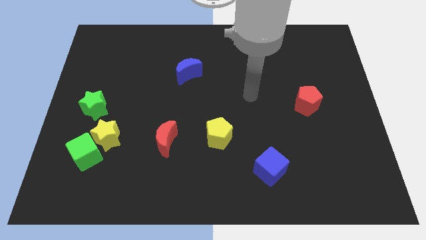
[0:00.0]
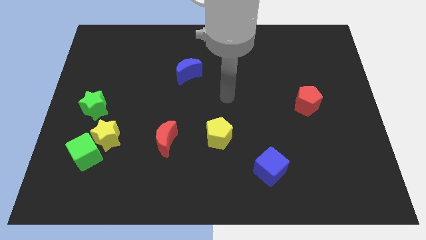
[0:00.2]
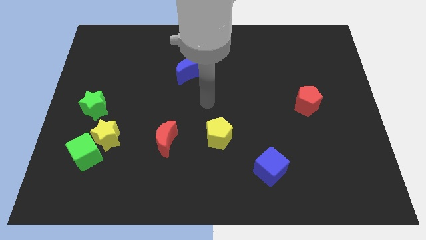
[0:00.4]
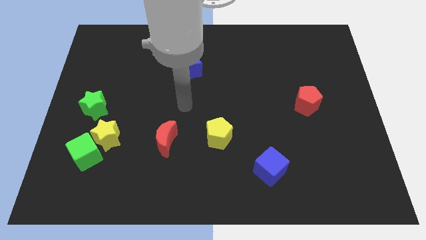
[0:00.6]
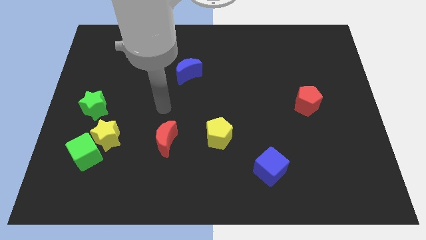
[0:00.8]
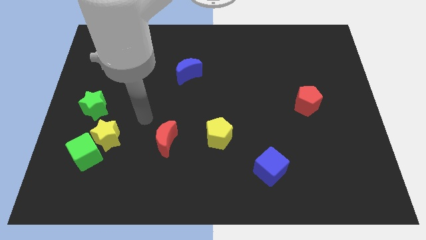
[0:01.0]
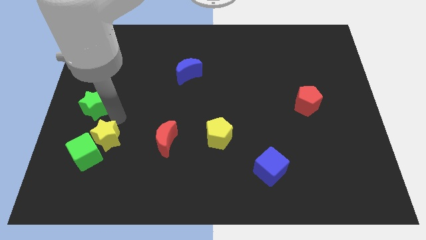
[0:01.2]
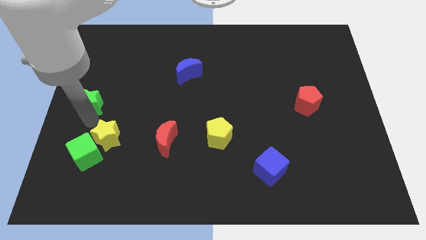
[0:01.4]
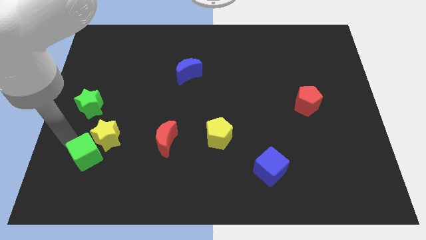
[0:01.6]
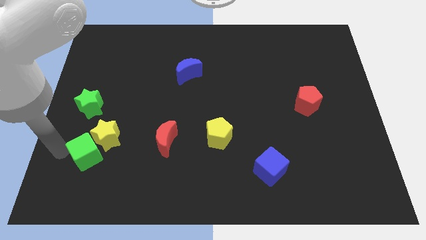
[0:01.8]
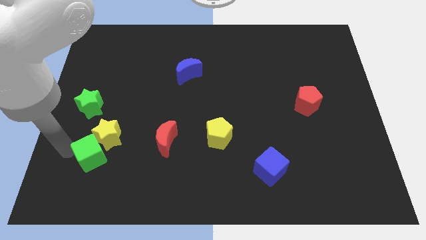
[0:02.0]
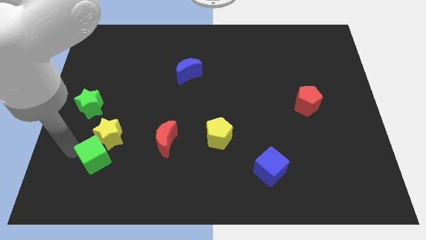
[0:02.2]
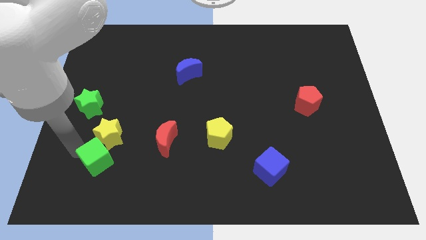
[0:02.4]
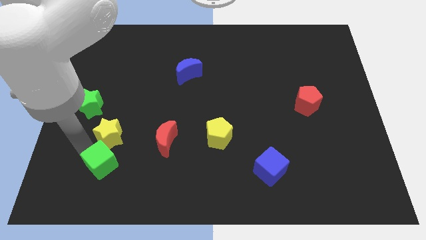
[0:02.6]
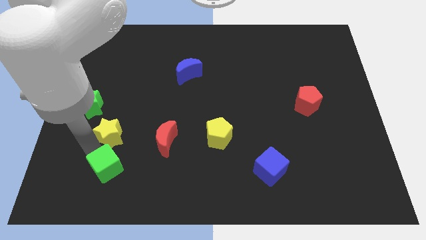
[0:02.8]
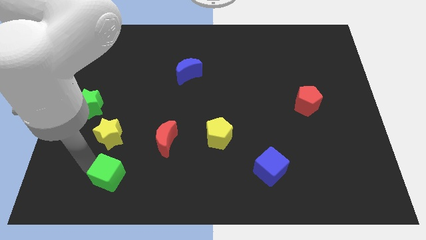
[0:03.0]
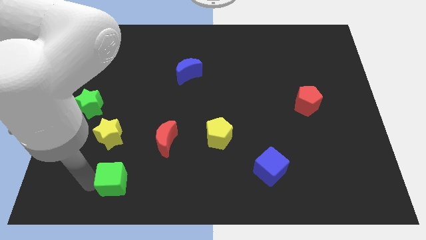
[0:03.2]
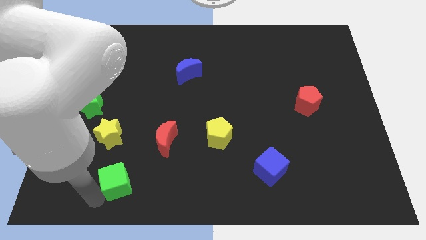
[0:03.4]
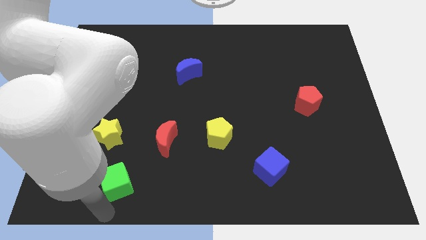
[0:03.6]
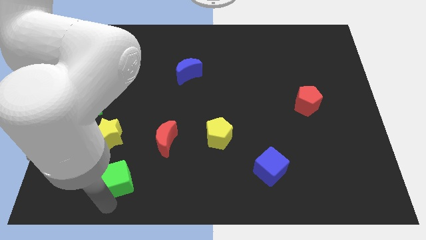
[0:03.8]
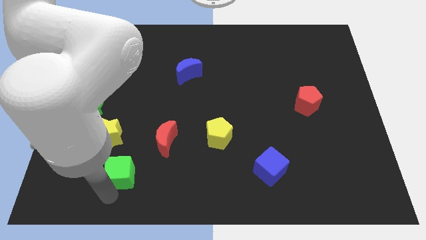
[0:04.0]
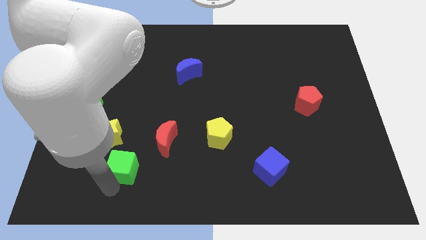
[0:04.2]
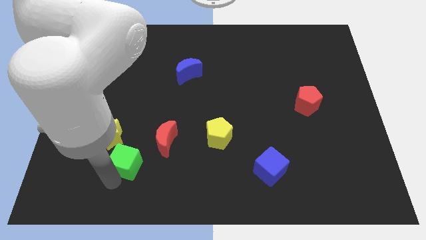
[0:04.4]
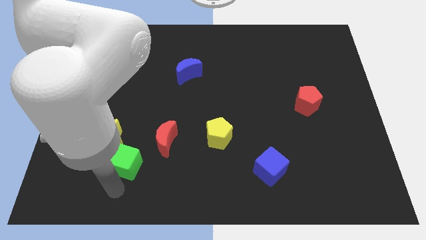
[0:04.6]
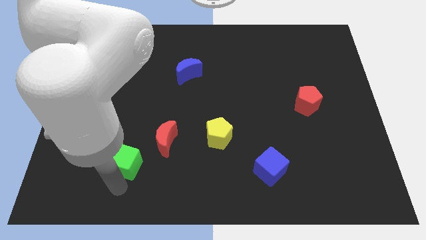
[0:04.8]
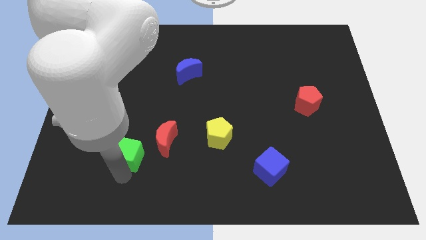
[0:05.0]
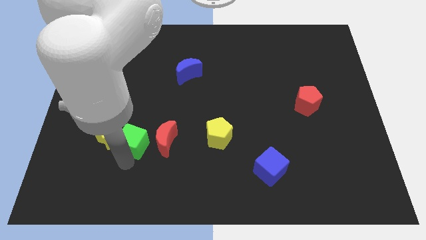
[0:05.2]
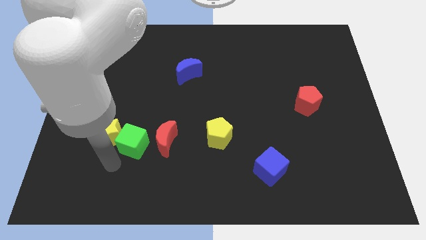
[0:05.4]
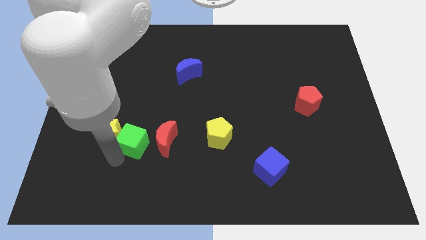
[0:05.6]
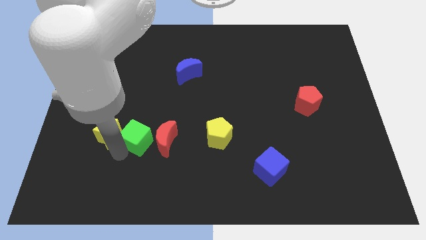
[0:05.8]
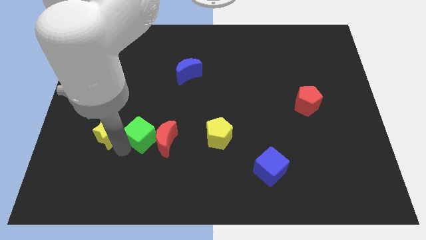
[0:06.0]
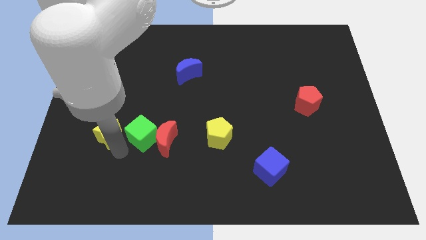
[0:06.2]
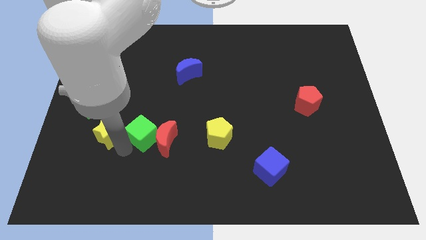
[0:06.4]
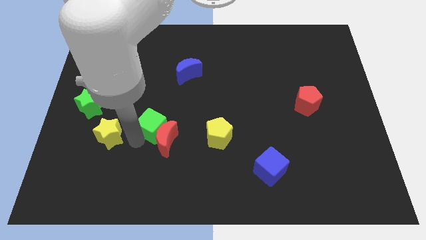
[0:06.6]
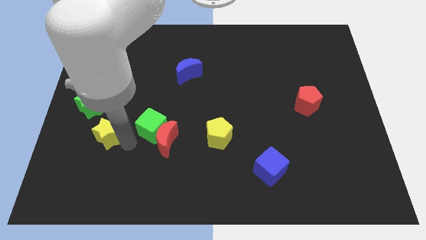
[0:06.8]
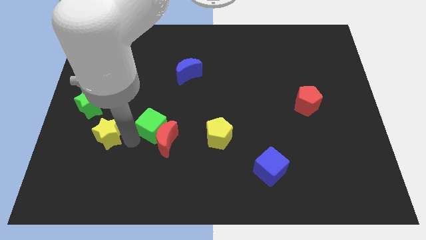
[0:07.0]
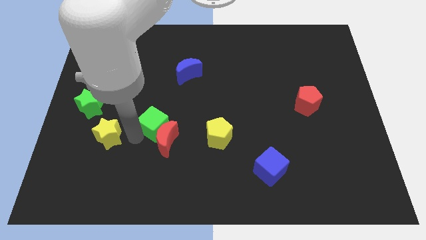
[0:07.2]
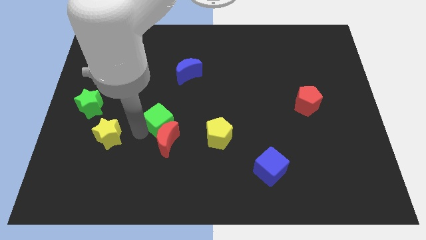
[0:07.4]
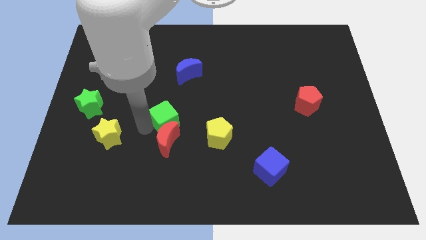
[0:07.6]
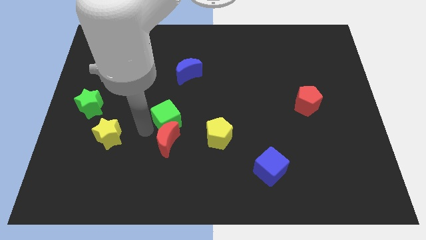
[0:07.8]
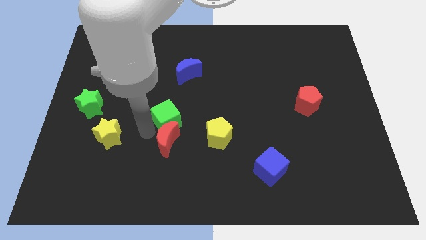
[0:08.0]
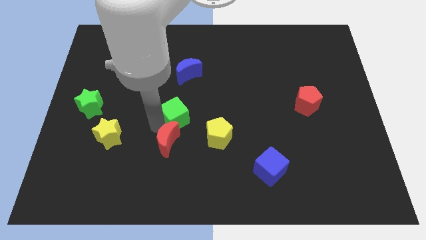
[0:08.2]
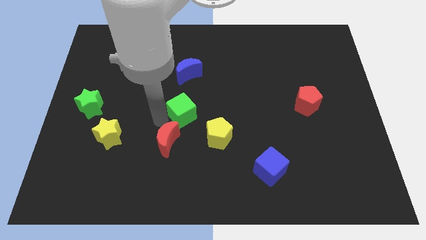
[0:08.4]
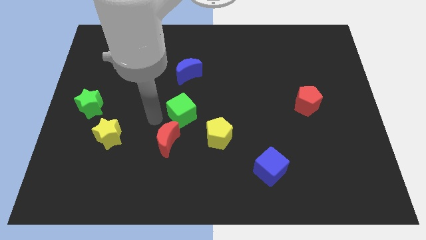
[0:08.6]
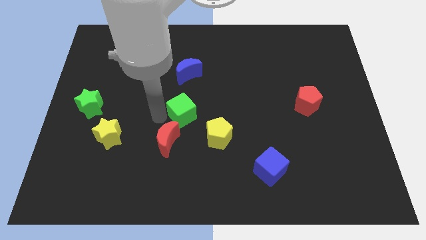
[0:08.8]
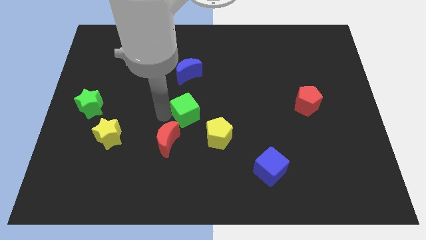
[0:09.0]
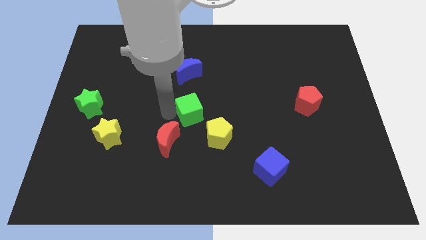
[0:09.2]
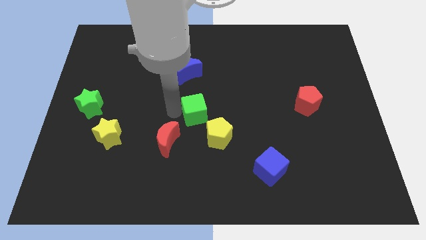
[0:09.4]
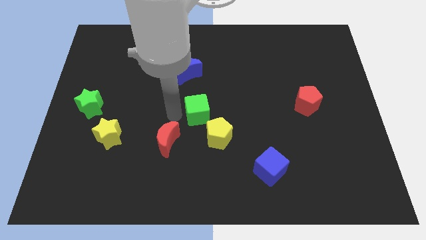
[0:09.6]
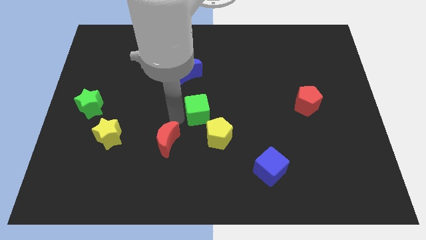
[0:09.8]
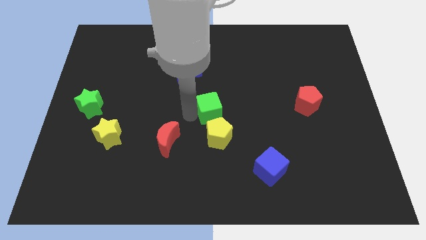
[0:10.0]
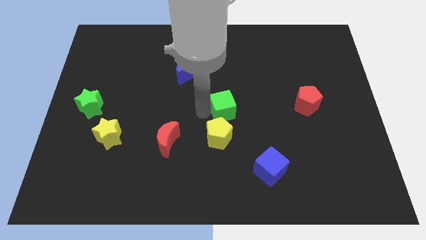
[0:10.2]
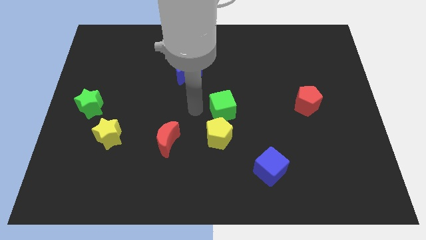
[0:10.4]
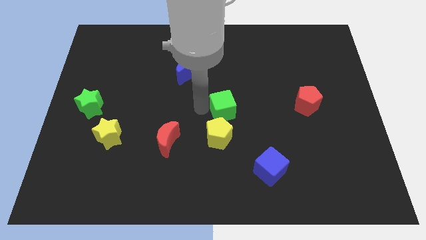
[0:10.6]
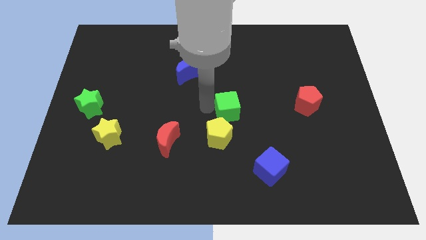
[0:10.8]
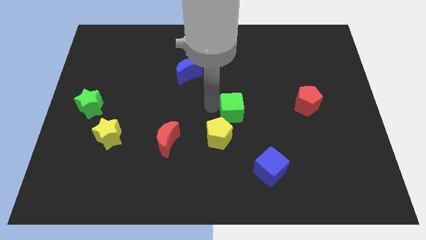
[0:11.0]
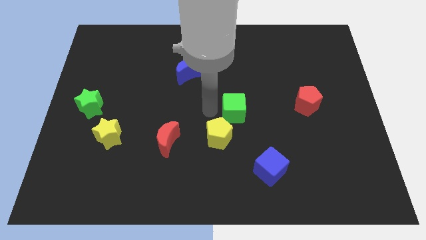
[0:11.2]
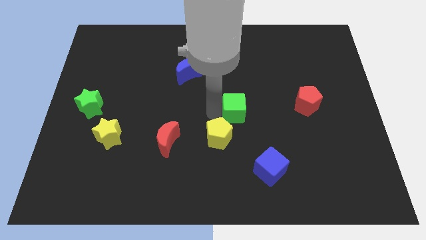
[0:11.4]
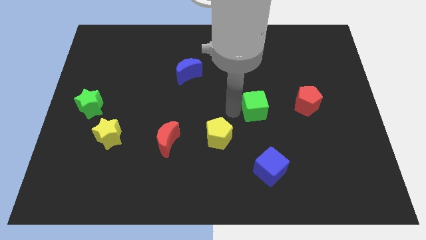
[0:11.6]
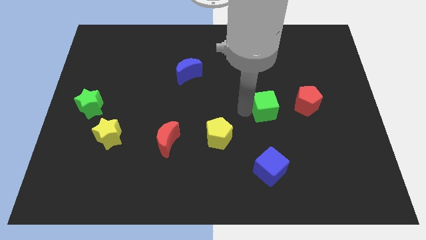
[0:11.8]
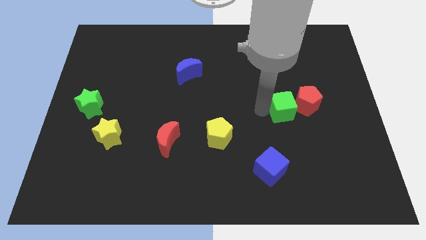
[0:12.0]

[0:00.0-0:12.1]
push the green cube close to the red pentagon

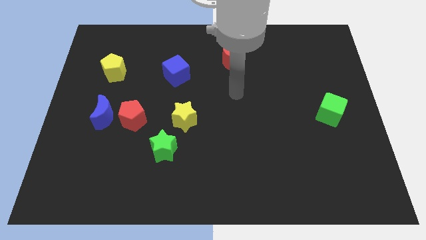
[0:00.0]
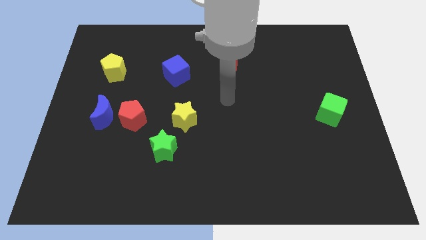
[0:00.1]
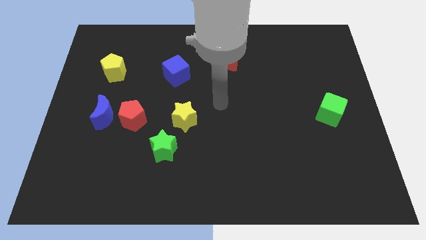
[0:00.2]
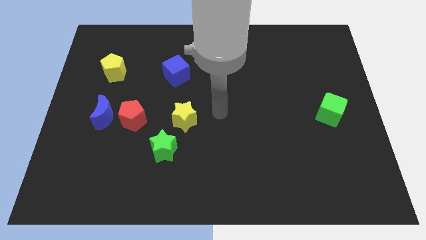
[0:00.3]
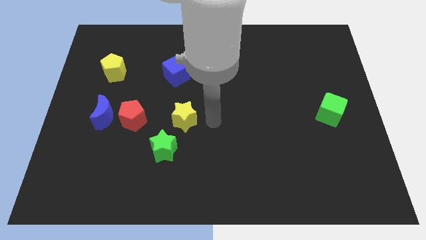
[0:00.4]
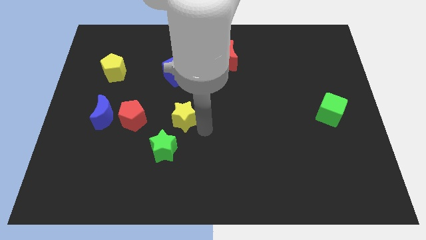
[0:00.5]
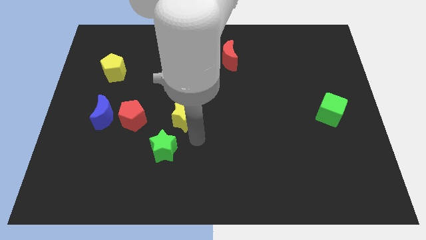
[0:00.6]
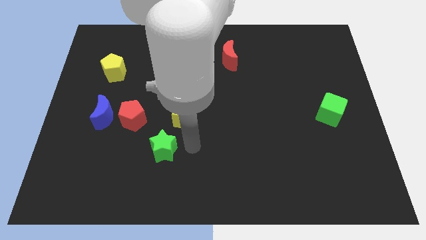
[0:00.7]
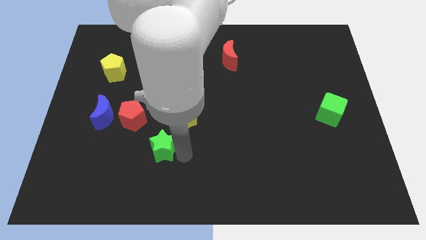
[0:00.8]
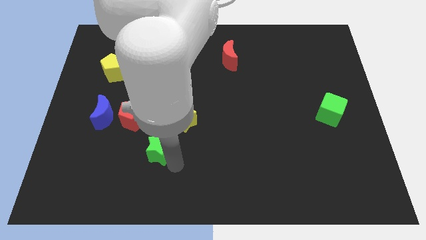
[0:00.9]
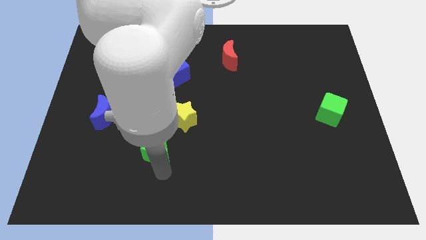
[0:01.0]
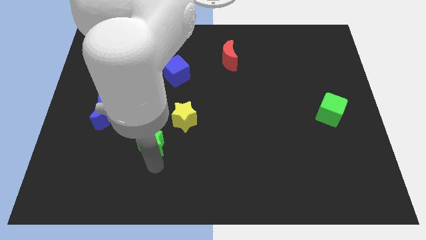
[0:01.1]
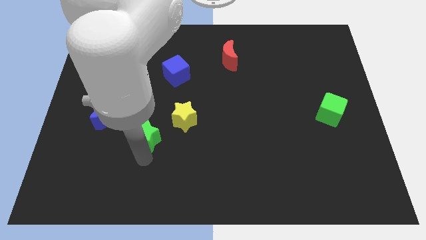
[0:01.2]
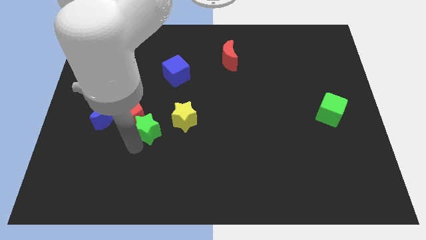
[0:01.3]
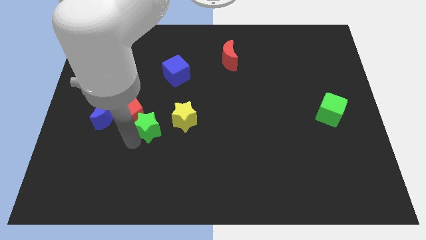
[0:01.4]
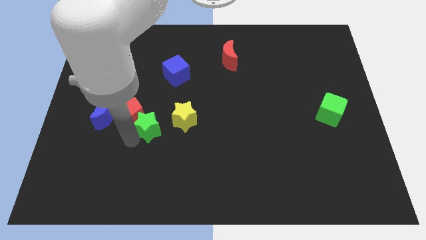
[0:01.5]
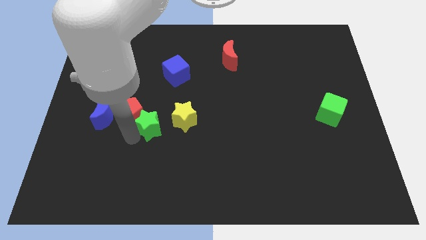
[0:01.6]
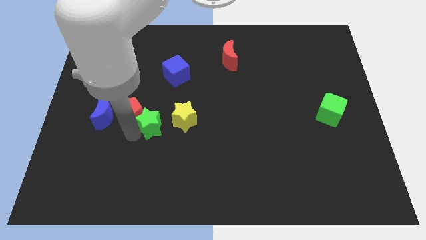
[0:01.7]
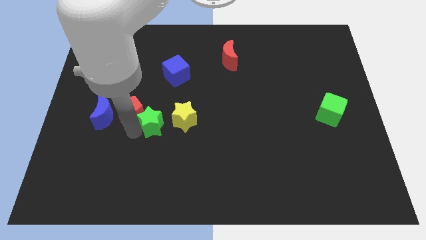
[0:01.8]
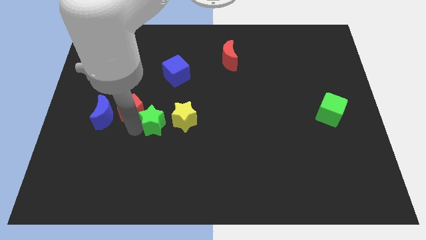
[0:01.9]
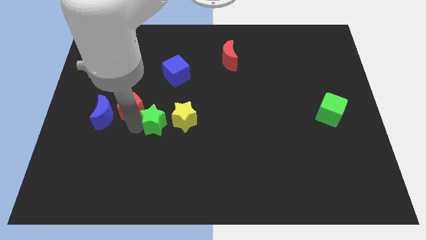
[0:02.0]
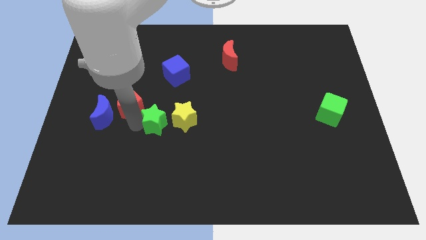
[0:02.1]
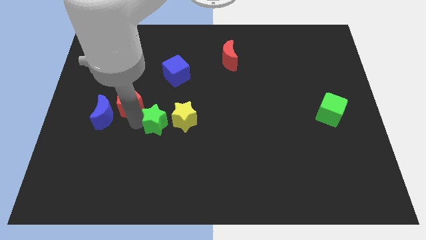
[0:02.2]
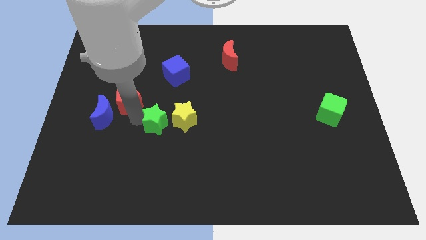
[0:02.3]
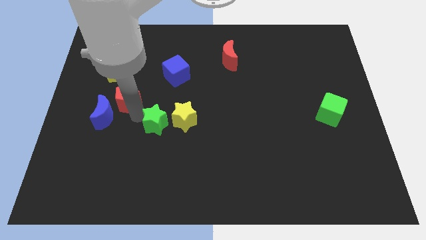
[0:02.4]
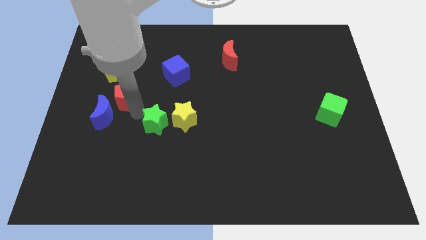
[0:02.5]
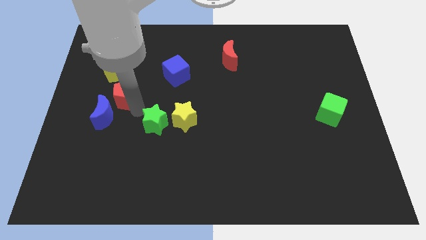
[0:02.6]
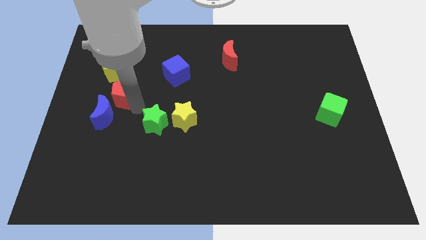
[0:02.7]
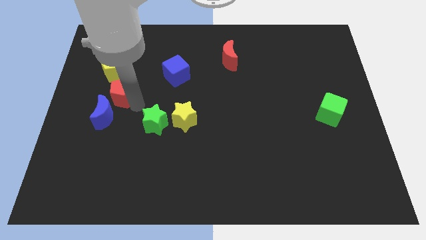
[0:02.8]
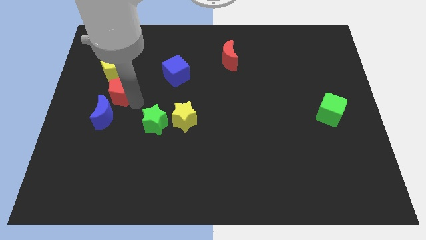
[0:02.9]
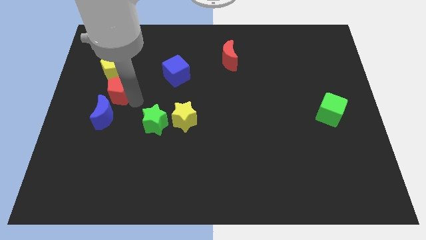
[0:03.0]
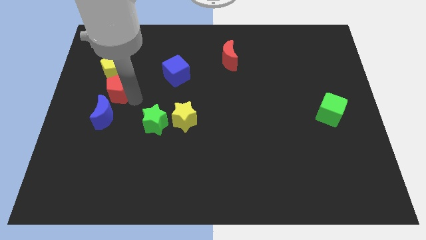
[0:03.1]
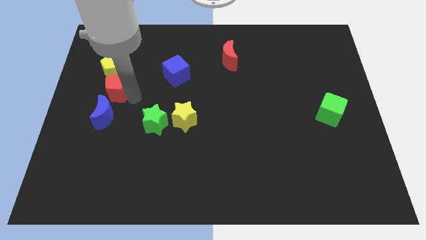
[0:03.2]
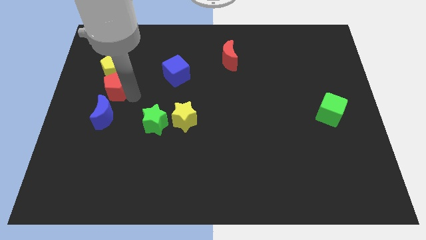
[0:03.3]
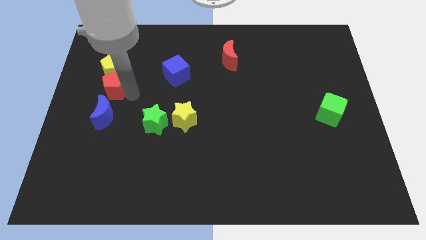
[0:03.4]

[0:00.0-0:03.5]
put the red pentagon close to the yellow pentagon
